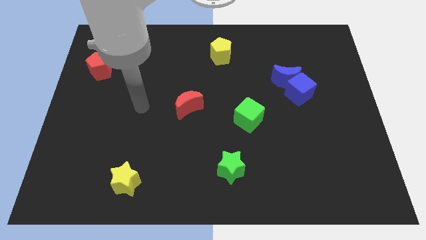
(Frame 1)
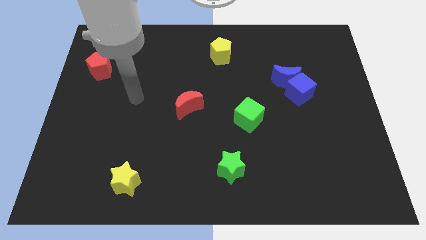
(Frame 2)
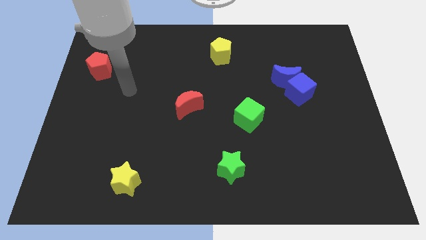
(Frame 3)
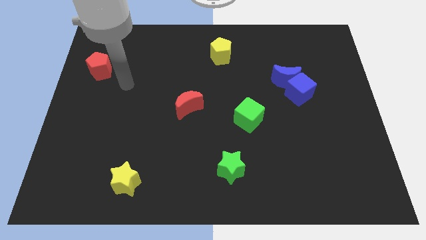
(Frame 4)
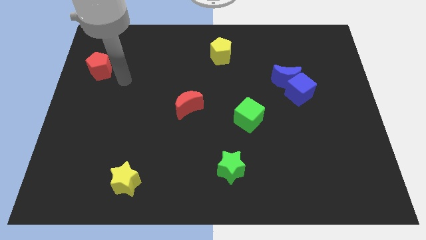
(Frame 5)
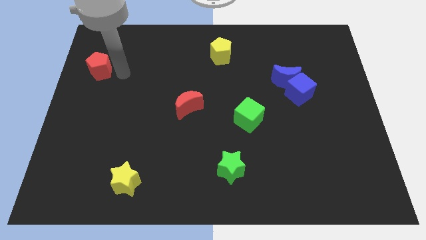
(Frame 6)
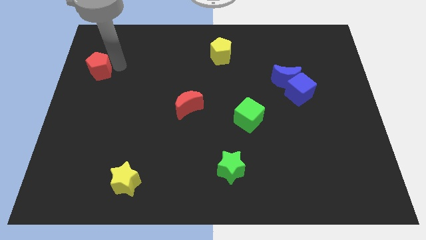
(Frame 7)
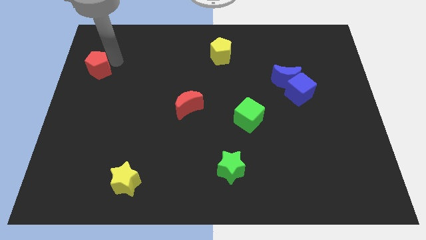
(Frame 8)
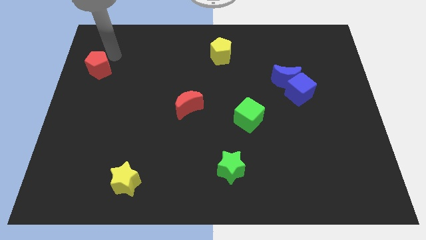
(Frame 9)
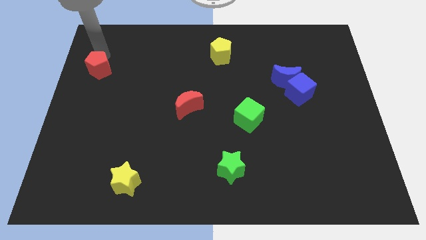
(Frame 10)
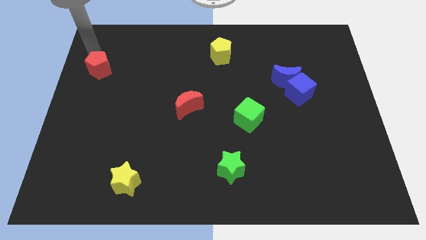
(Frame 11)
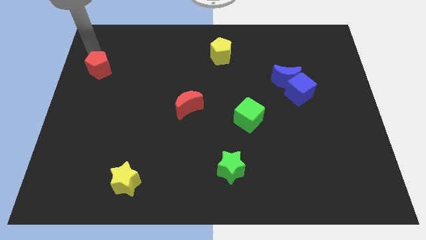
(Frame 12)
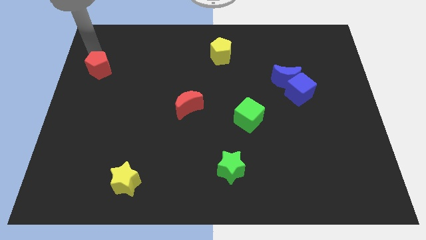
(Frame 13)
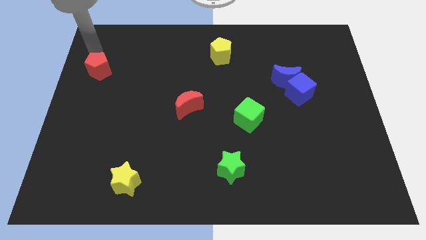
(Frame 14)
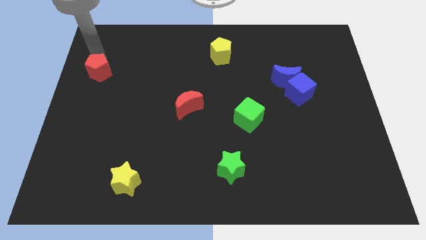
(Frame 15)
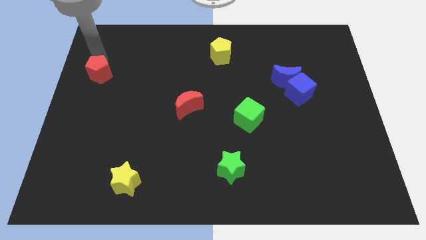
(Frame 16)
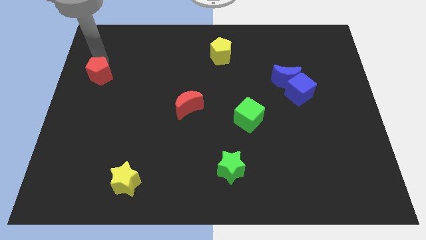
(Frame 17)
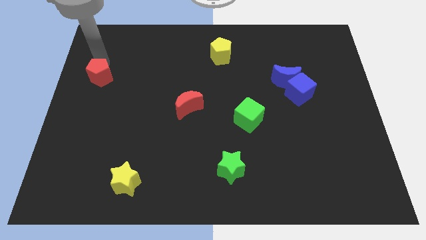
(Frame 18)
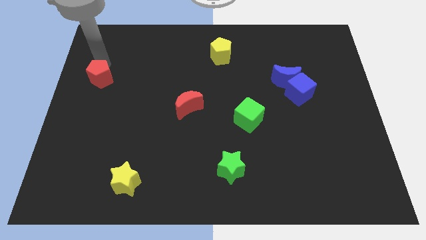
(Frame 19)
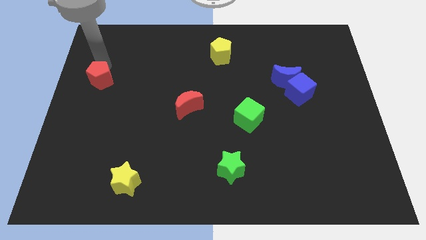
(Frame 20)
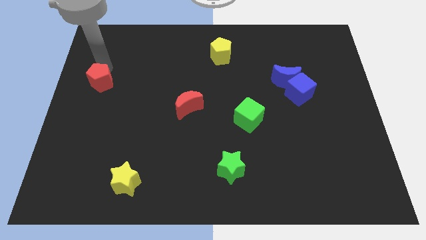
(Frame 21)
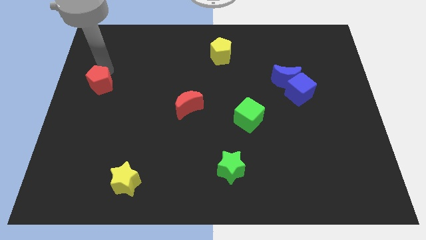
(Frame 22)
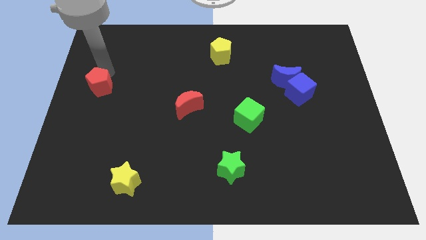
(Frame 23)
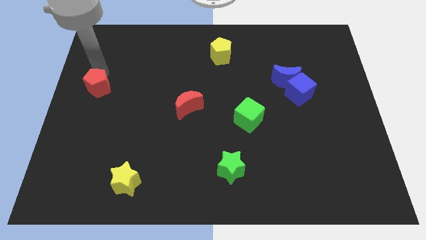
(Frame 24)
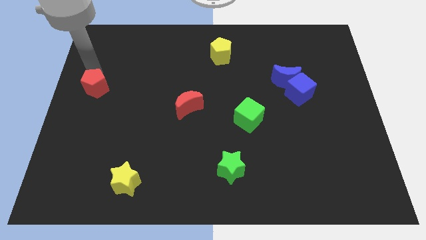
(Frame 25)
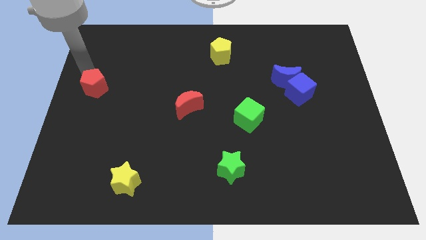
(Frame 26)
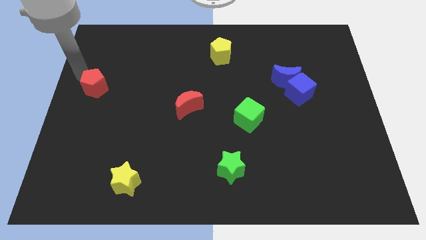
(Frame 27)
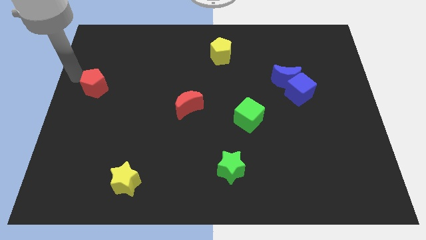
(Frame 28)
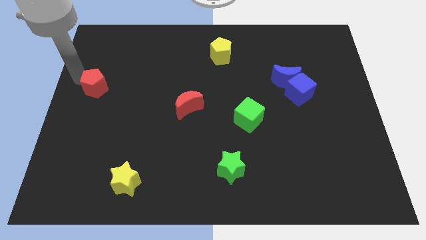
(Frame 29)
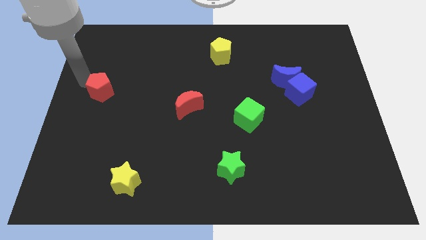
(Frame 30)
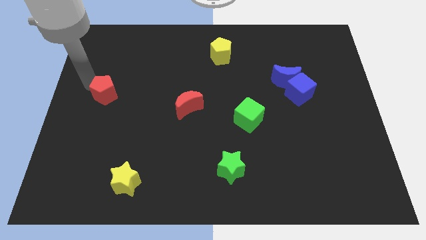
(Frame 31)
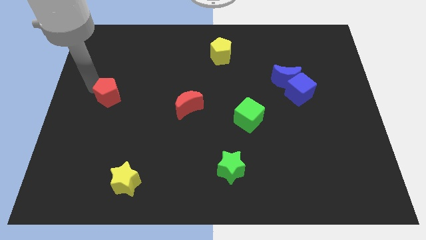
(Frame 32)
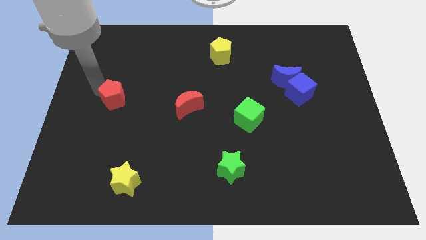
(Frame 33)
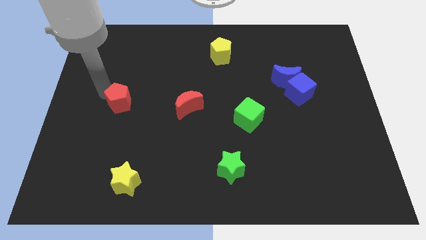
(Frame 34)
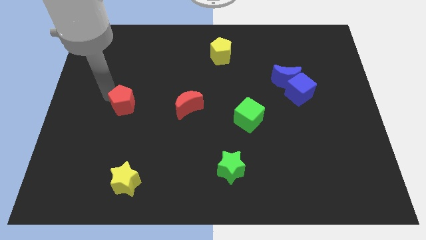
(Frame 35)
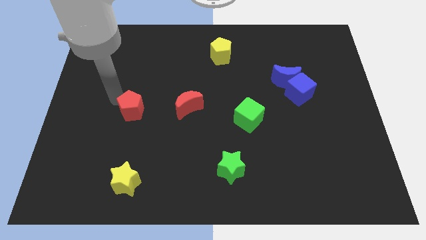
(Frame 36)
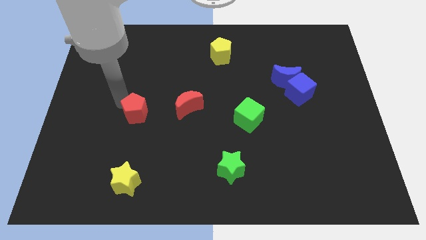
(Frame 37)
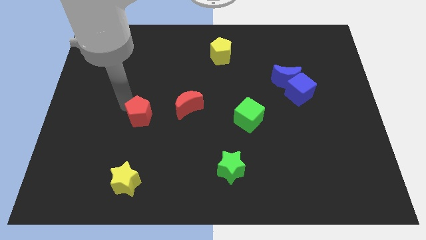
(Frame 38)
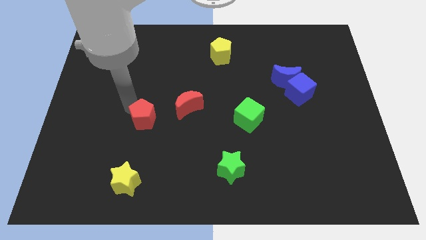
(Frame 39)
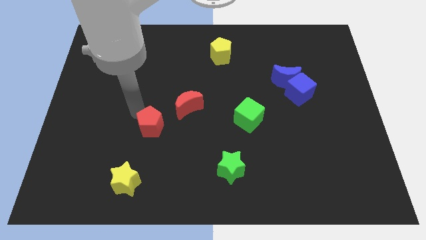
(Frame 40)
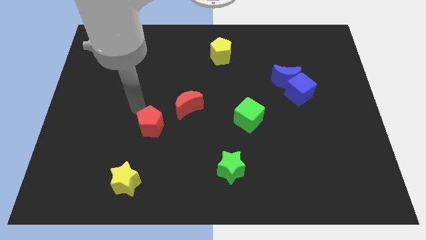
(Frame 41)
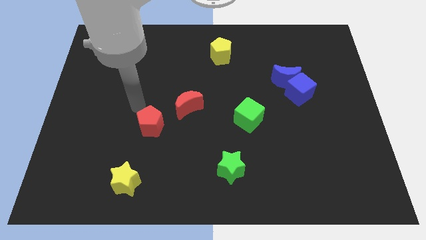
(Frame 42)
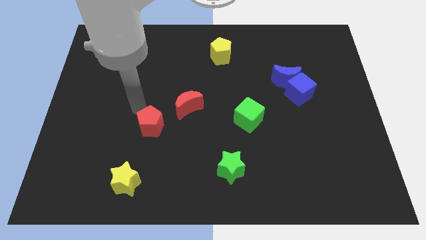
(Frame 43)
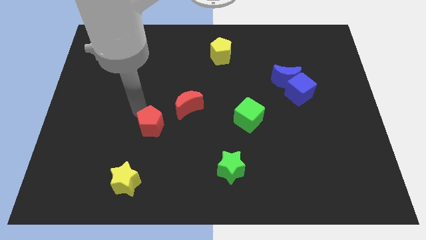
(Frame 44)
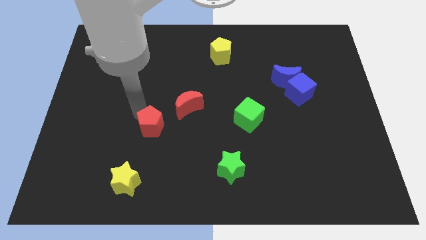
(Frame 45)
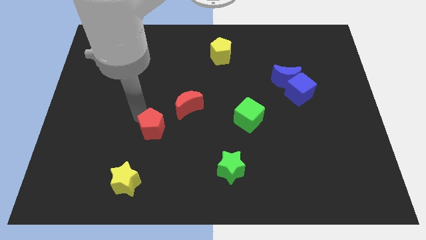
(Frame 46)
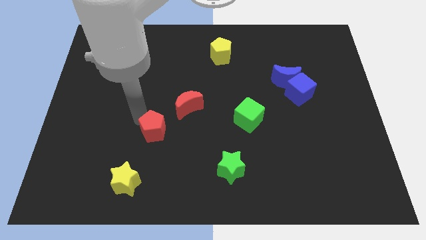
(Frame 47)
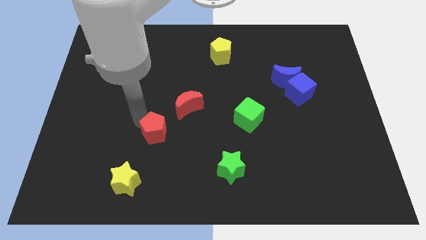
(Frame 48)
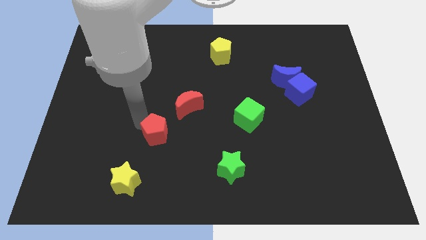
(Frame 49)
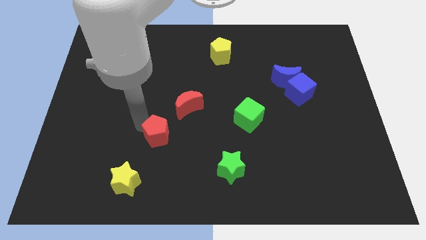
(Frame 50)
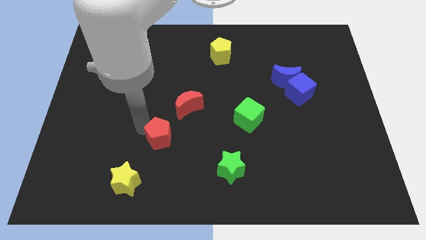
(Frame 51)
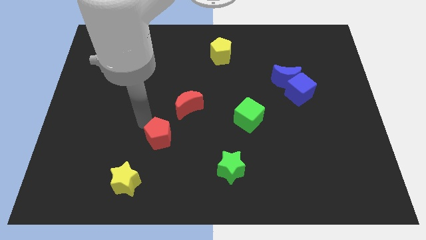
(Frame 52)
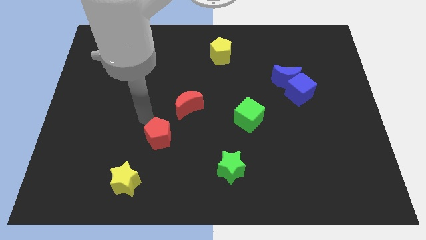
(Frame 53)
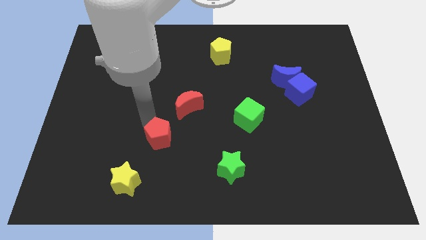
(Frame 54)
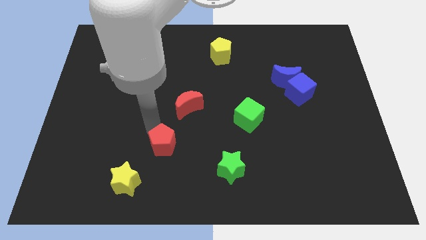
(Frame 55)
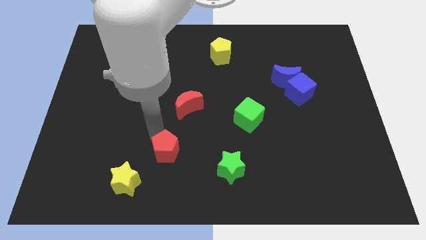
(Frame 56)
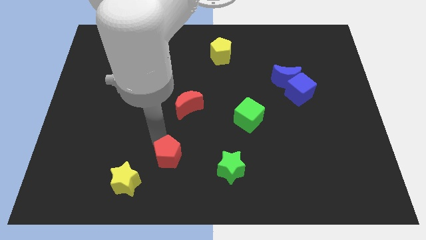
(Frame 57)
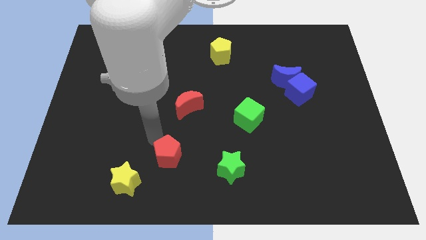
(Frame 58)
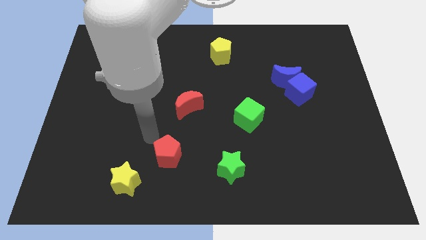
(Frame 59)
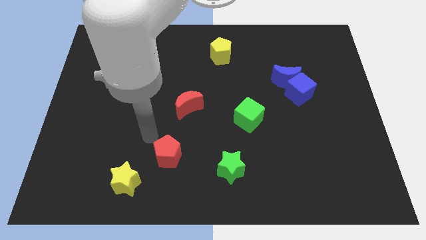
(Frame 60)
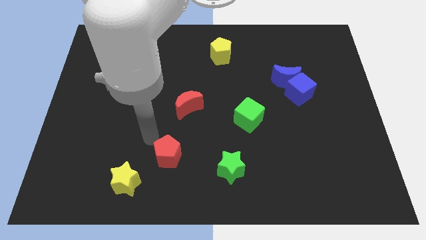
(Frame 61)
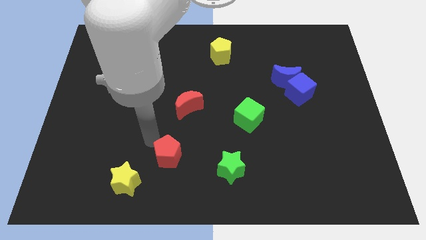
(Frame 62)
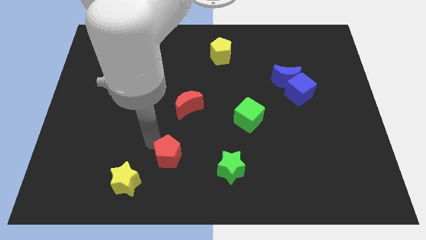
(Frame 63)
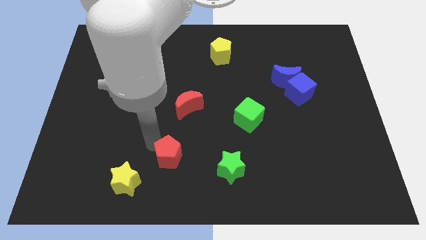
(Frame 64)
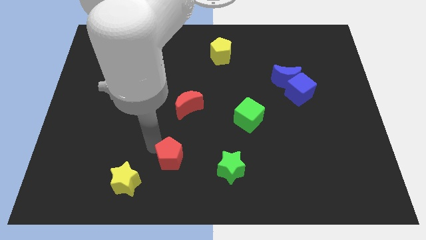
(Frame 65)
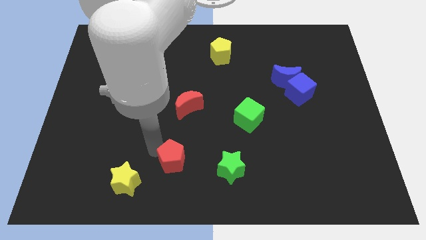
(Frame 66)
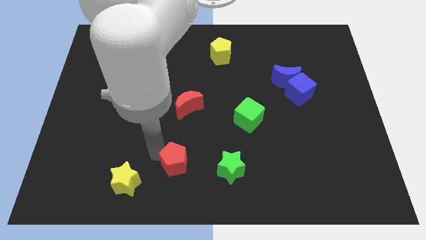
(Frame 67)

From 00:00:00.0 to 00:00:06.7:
push the red pentagon to the bottom
